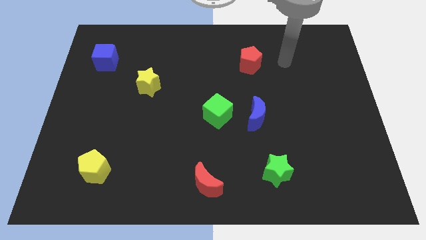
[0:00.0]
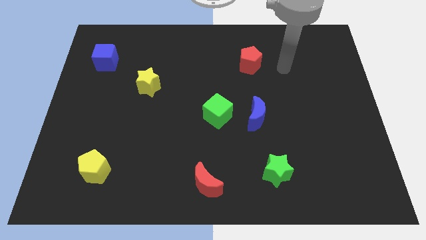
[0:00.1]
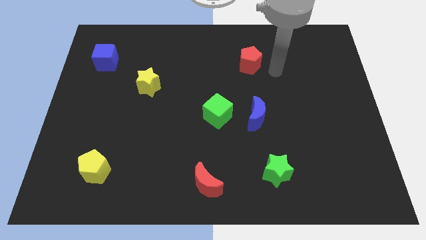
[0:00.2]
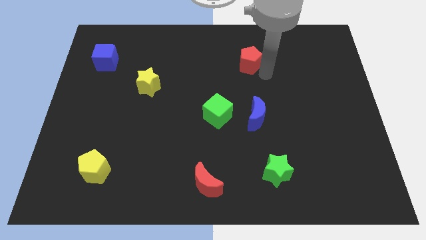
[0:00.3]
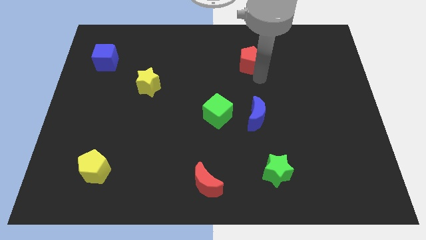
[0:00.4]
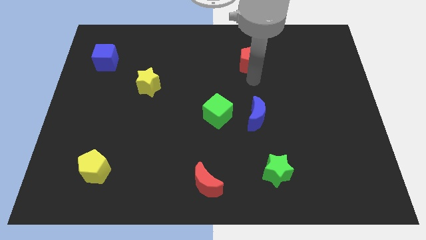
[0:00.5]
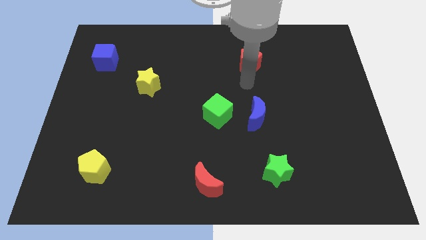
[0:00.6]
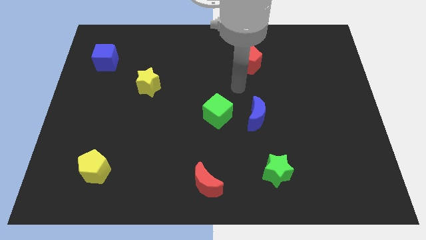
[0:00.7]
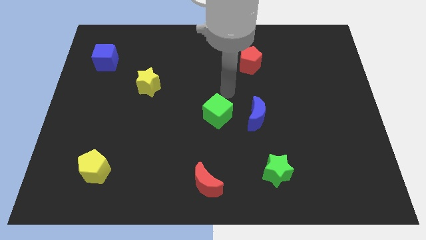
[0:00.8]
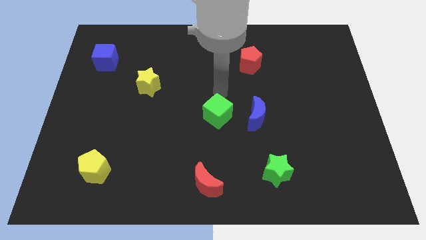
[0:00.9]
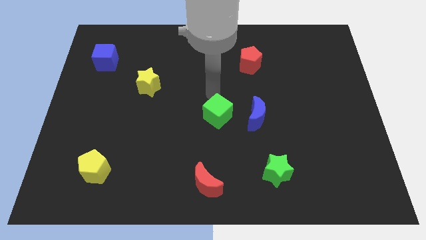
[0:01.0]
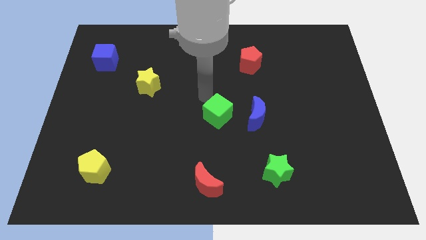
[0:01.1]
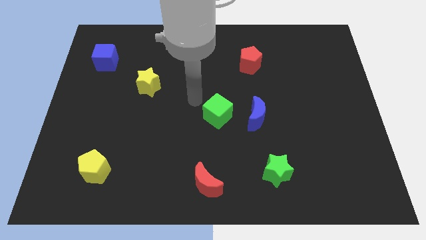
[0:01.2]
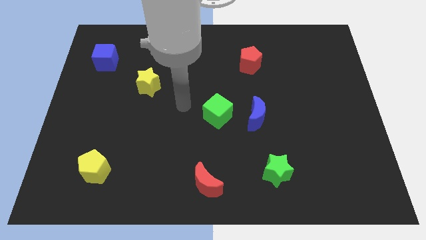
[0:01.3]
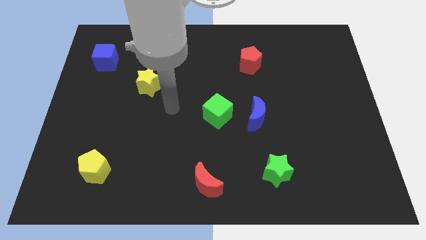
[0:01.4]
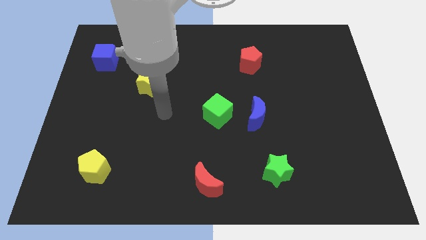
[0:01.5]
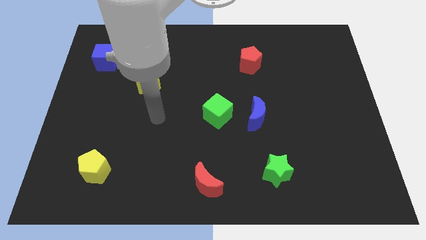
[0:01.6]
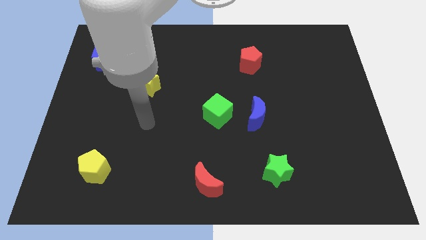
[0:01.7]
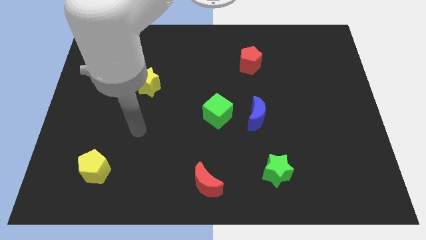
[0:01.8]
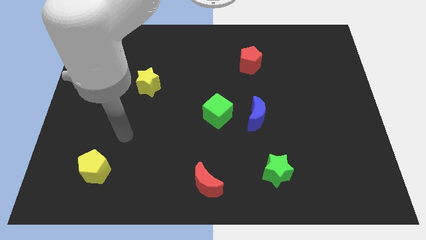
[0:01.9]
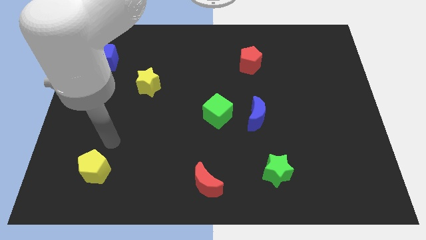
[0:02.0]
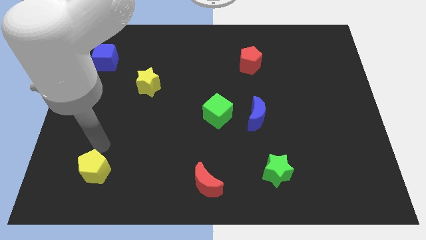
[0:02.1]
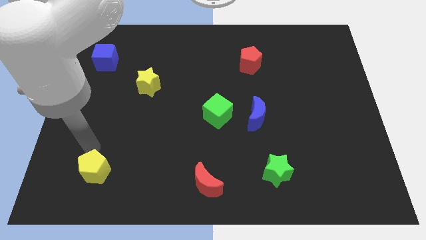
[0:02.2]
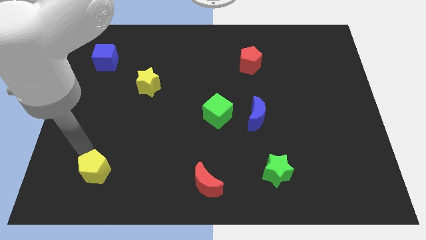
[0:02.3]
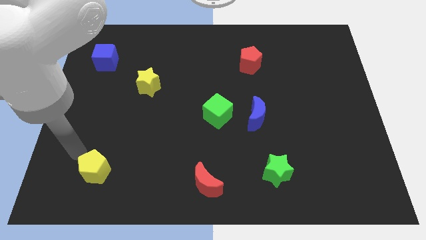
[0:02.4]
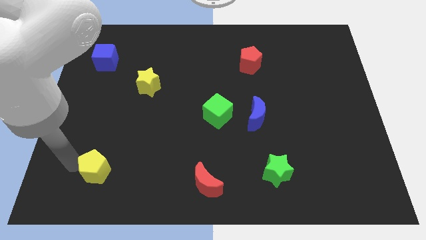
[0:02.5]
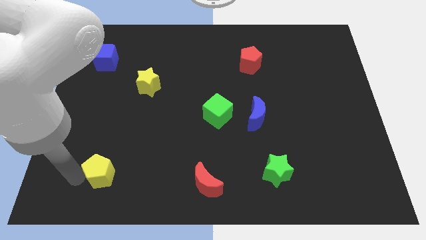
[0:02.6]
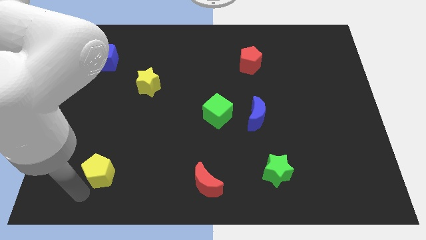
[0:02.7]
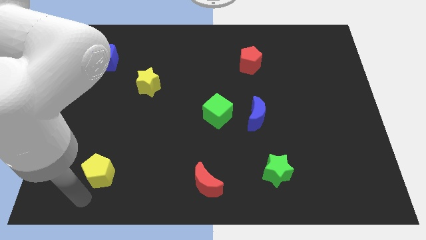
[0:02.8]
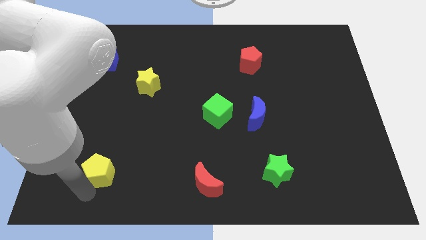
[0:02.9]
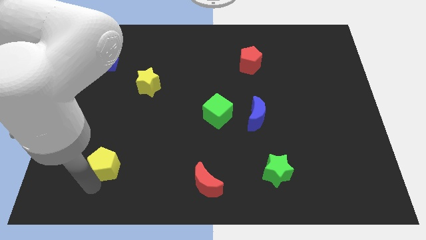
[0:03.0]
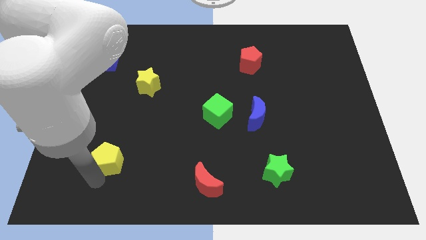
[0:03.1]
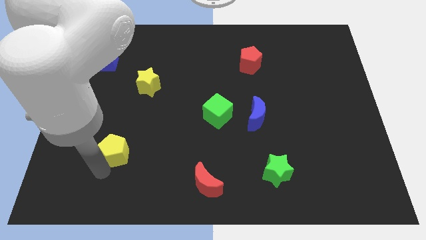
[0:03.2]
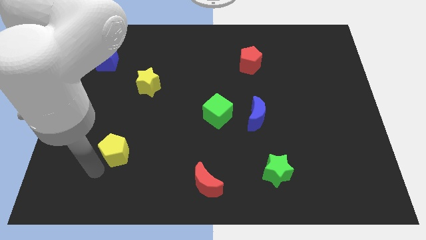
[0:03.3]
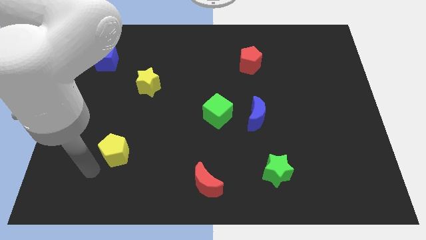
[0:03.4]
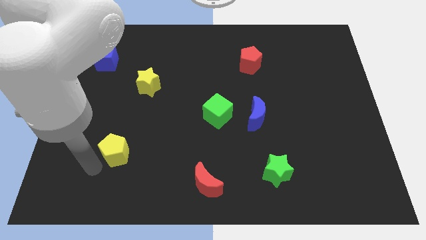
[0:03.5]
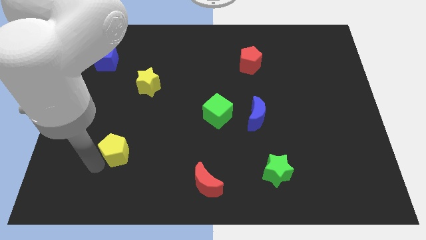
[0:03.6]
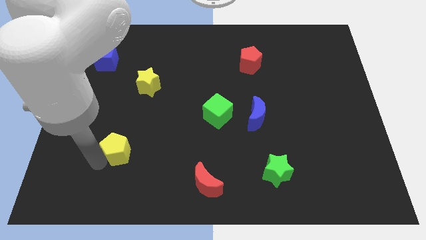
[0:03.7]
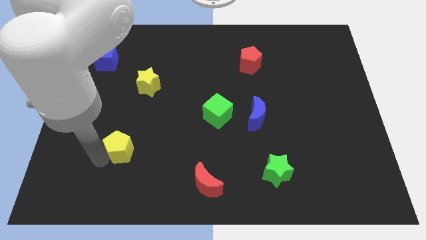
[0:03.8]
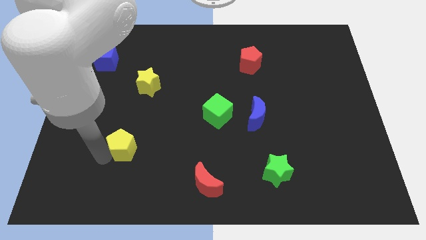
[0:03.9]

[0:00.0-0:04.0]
slide the yellow pentagon up and right a little

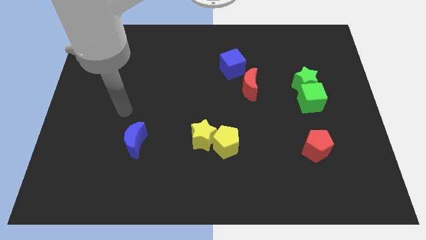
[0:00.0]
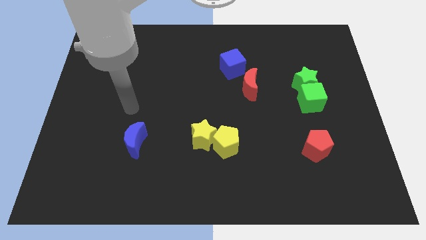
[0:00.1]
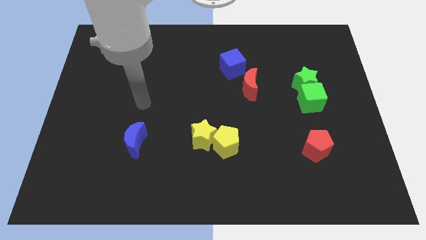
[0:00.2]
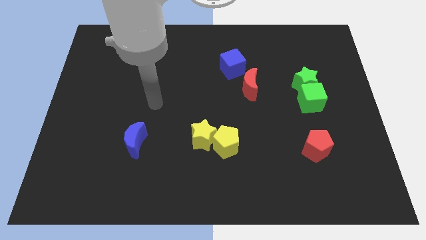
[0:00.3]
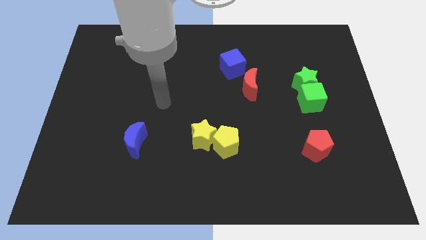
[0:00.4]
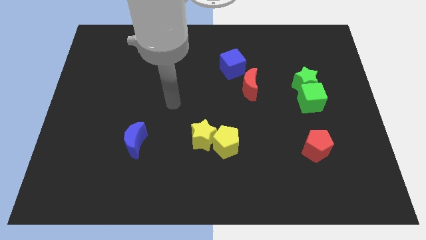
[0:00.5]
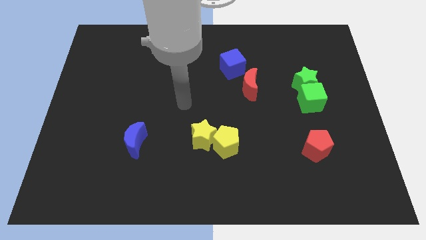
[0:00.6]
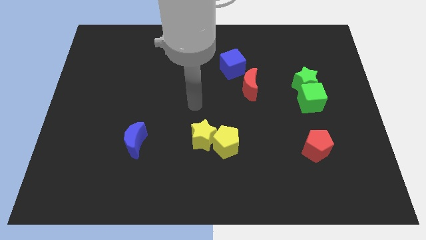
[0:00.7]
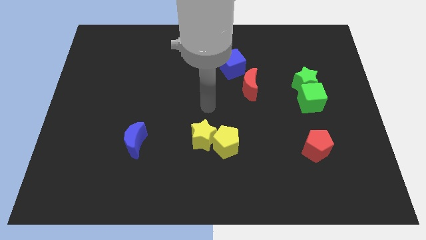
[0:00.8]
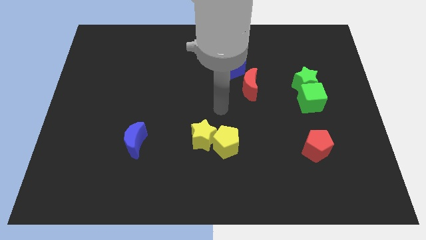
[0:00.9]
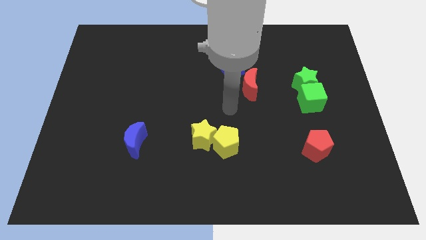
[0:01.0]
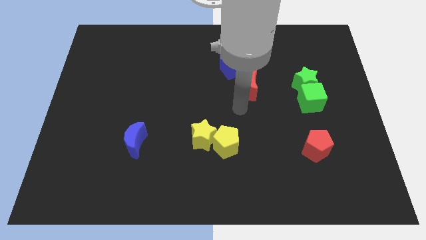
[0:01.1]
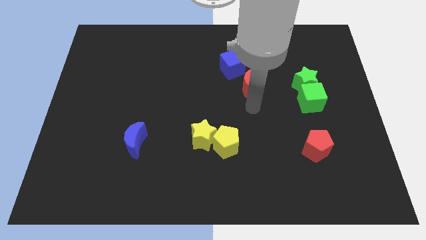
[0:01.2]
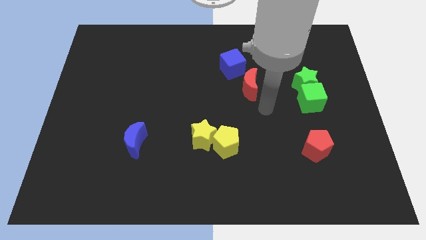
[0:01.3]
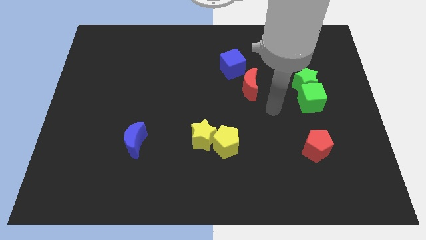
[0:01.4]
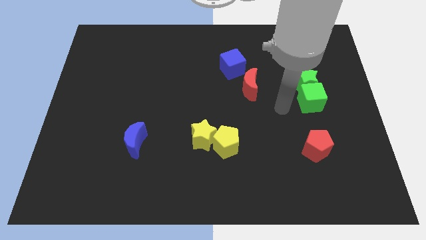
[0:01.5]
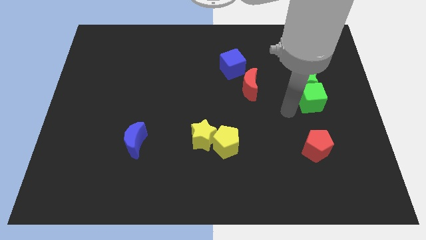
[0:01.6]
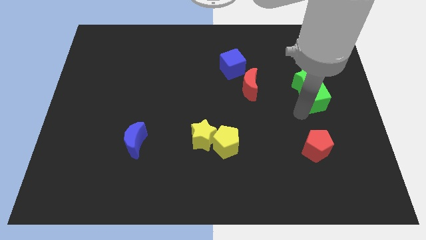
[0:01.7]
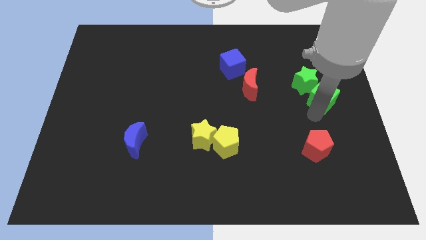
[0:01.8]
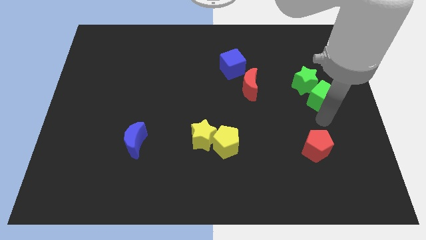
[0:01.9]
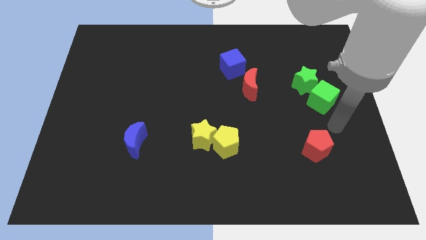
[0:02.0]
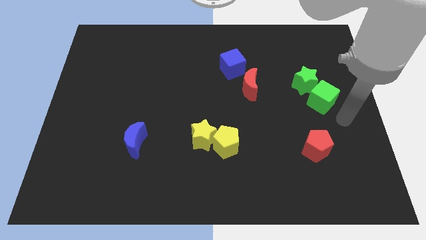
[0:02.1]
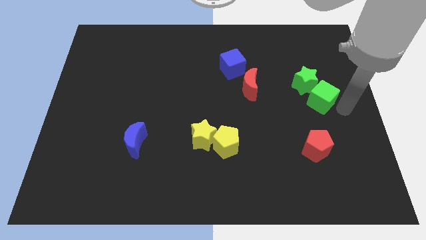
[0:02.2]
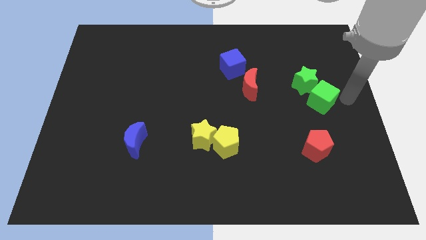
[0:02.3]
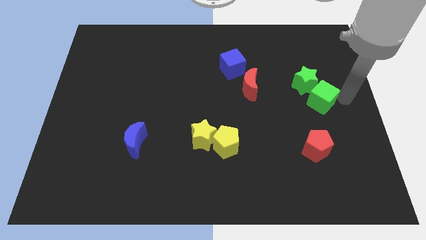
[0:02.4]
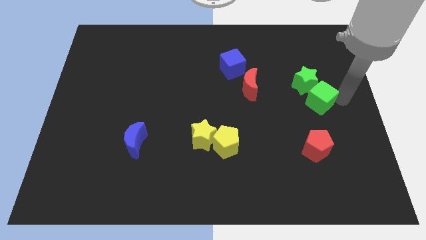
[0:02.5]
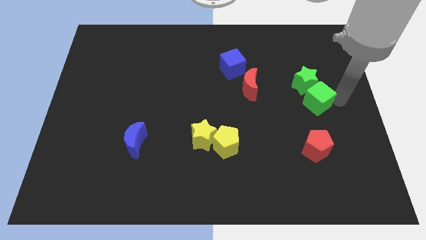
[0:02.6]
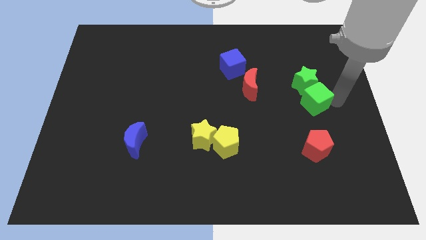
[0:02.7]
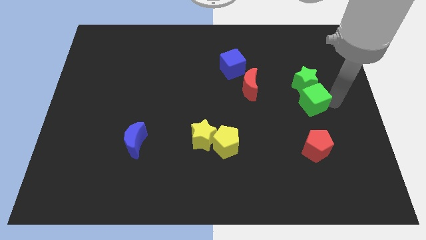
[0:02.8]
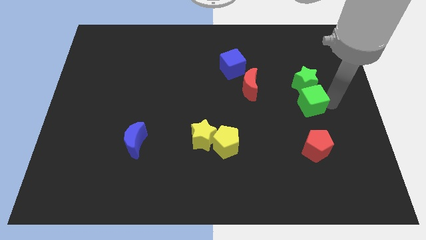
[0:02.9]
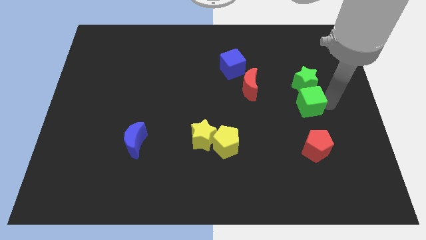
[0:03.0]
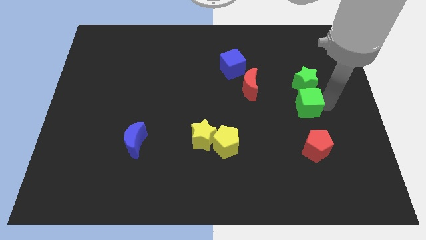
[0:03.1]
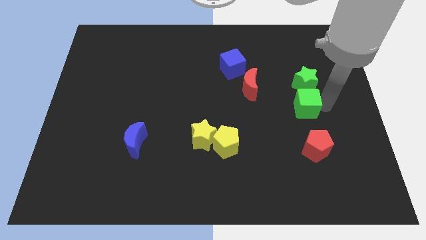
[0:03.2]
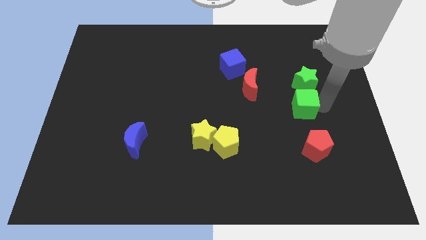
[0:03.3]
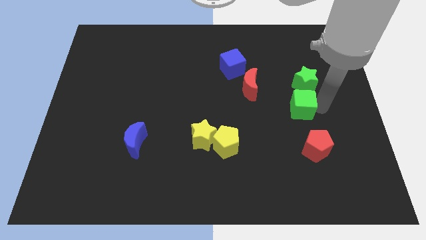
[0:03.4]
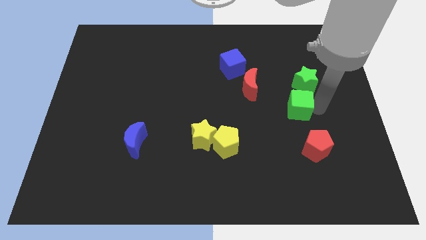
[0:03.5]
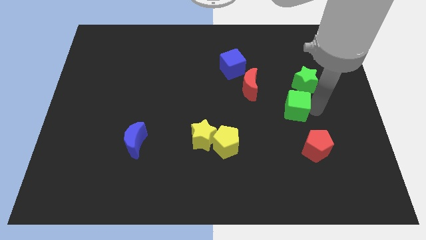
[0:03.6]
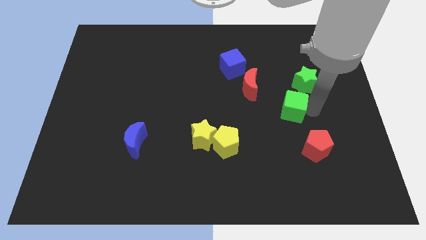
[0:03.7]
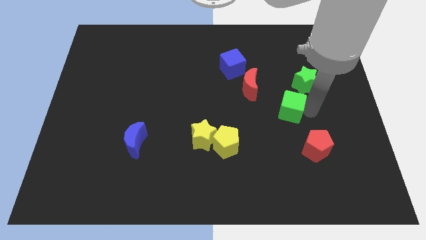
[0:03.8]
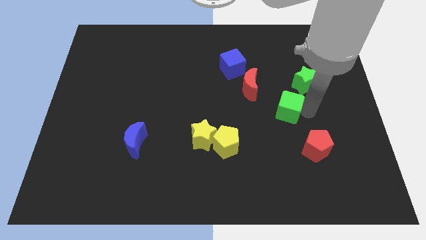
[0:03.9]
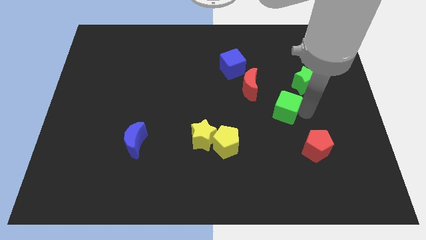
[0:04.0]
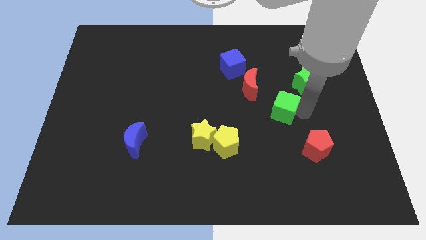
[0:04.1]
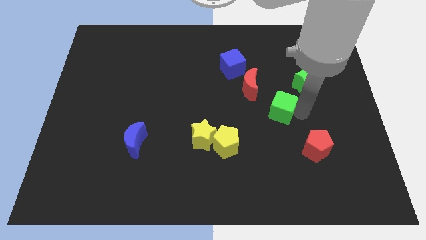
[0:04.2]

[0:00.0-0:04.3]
push the green cube left a little bit
